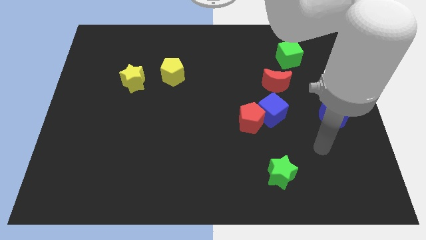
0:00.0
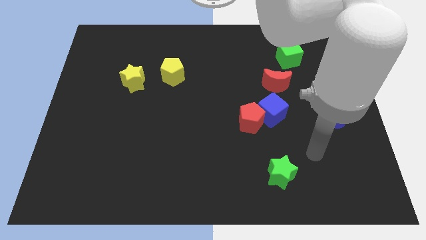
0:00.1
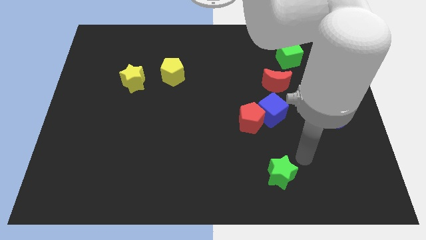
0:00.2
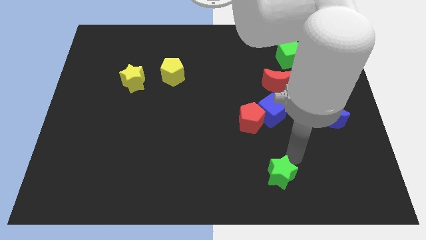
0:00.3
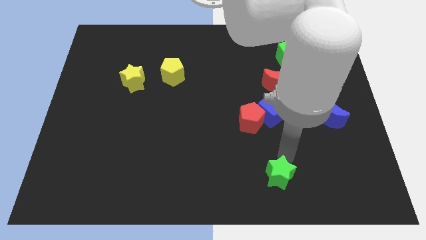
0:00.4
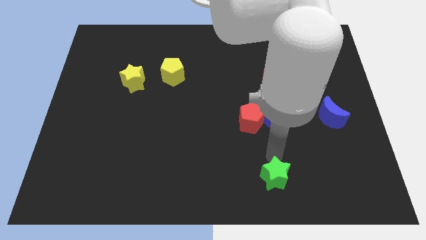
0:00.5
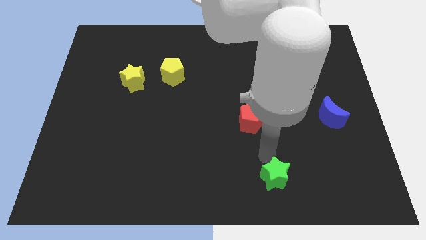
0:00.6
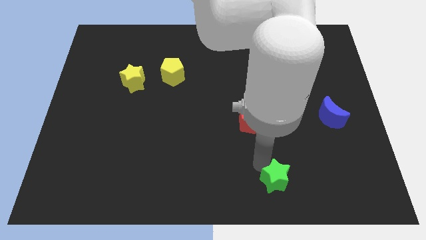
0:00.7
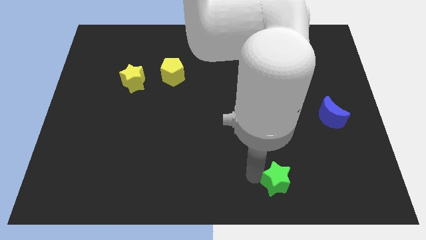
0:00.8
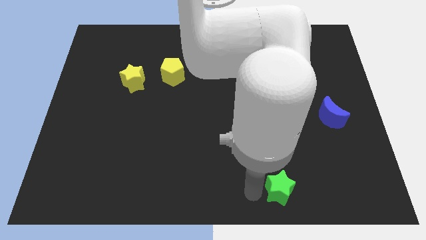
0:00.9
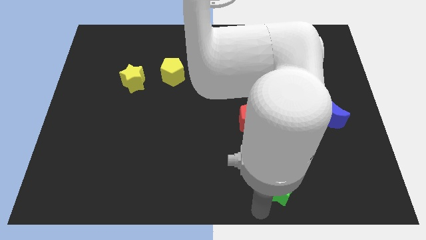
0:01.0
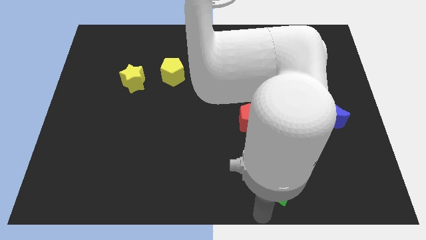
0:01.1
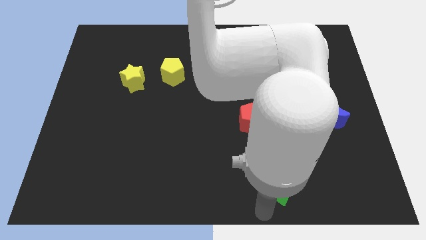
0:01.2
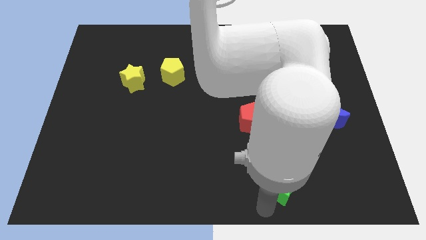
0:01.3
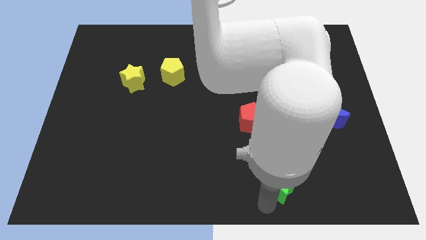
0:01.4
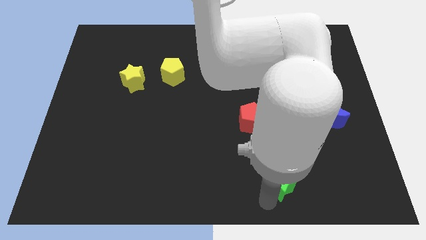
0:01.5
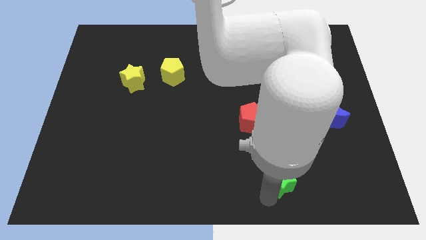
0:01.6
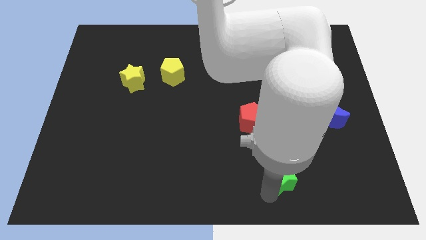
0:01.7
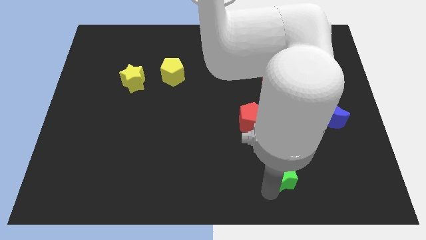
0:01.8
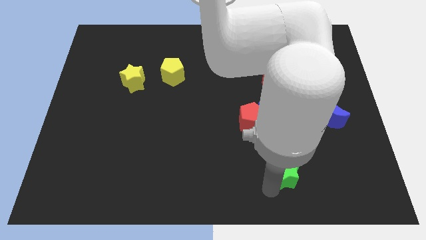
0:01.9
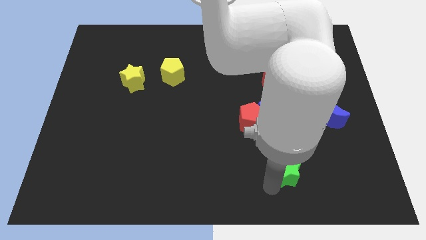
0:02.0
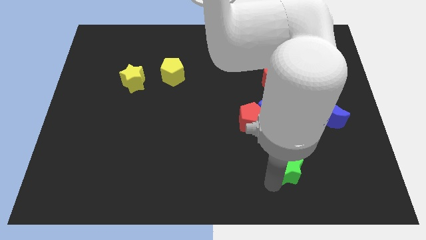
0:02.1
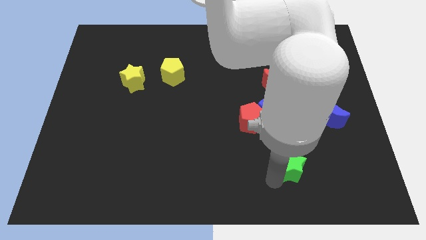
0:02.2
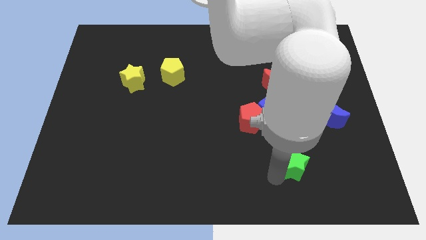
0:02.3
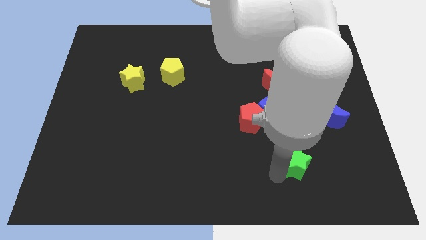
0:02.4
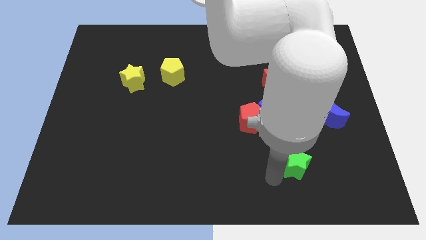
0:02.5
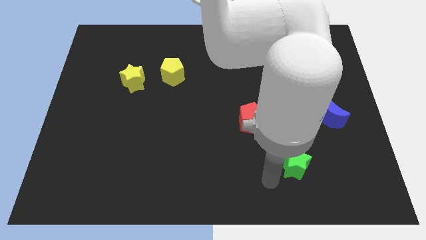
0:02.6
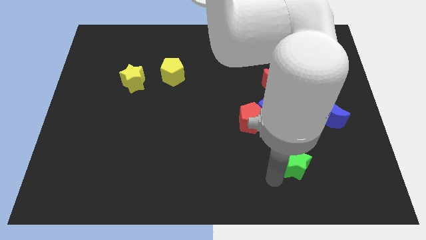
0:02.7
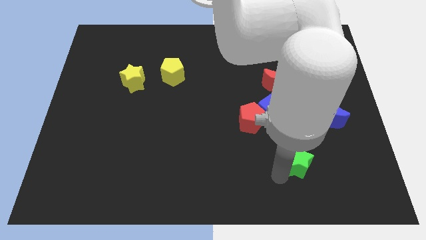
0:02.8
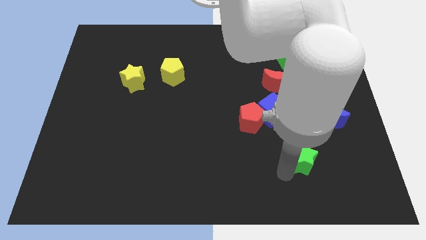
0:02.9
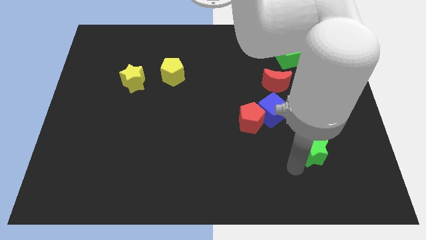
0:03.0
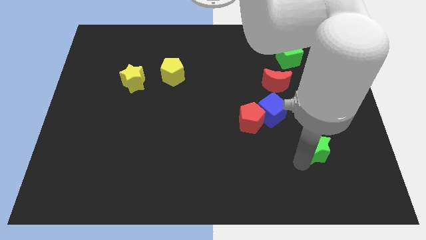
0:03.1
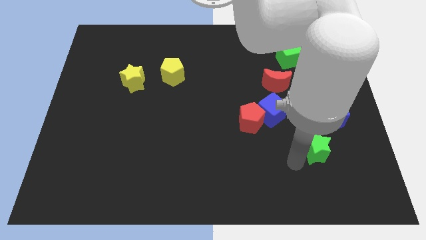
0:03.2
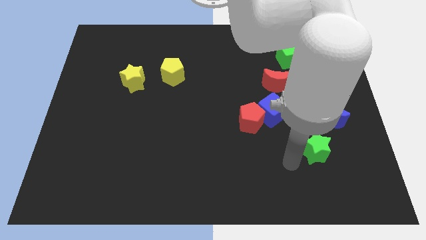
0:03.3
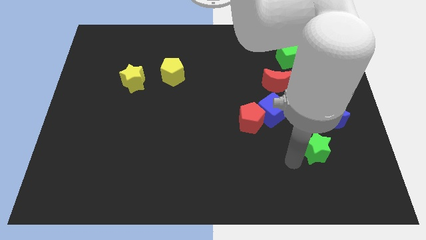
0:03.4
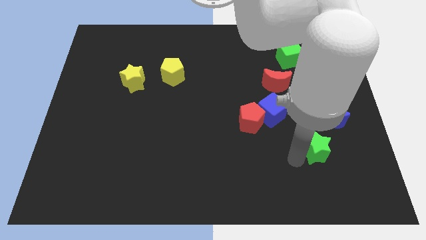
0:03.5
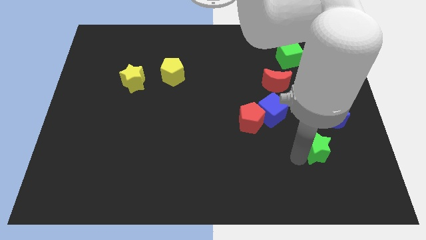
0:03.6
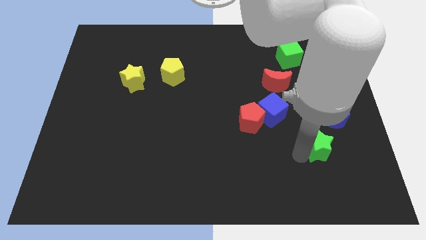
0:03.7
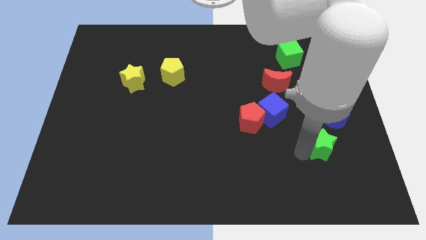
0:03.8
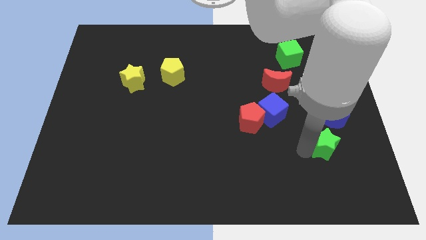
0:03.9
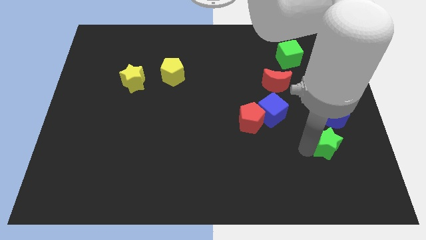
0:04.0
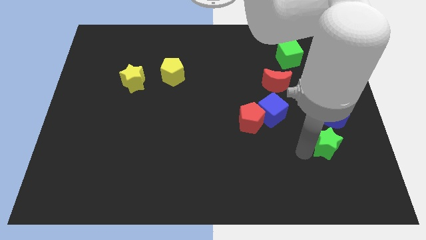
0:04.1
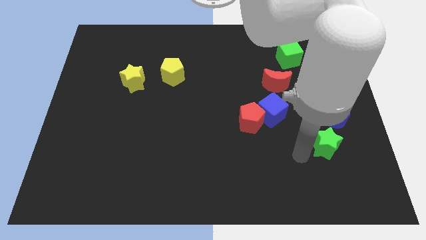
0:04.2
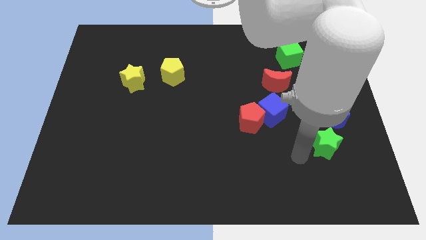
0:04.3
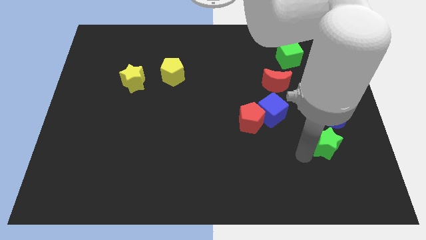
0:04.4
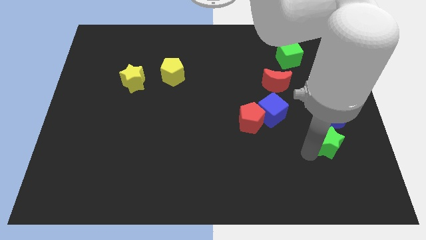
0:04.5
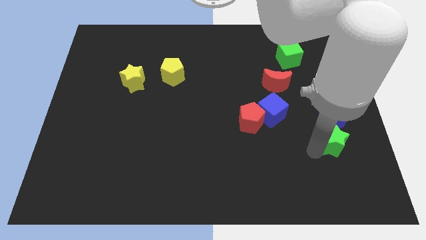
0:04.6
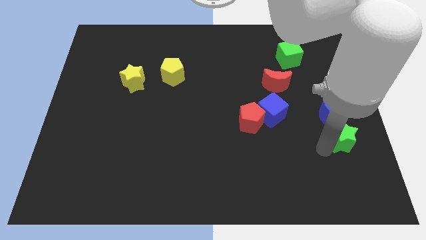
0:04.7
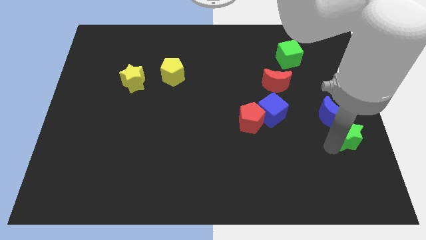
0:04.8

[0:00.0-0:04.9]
move the green star to the right side of the board

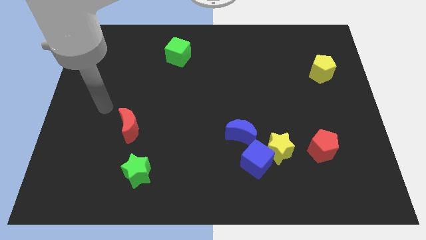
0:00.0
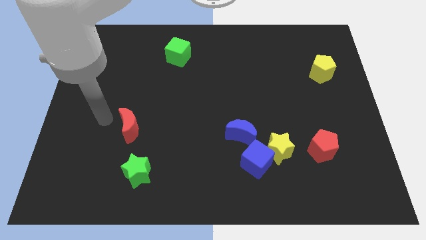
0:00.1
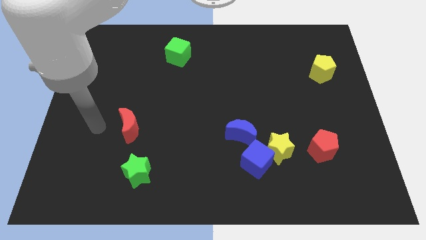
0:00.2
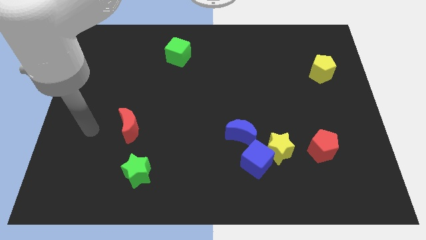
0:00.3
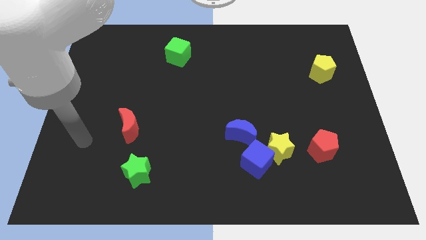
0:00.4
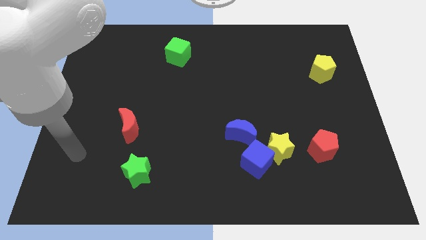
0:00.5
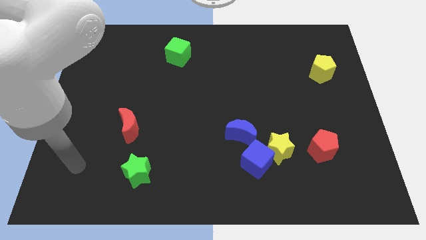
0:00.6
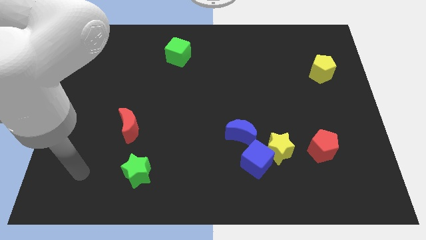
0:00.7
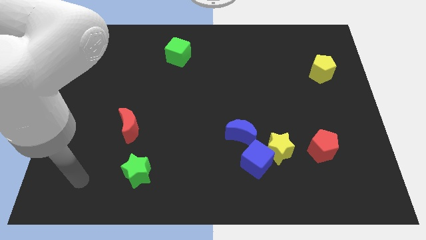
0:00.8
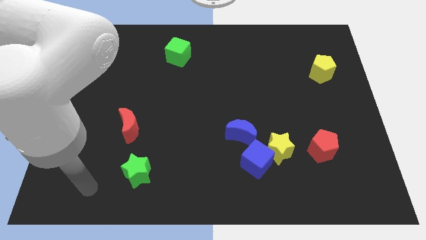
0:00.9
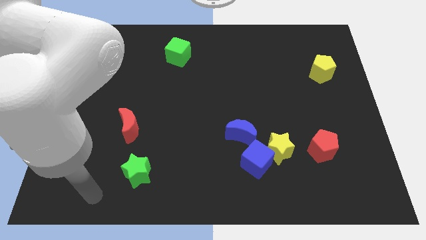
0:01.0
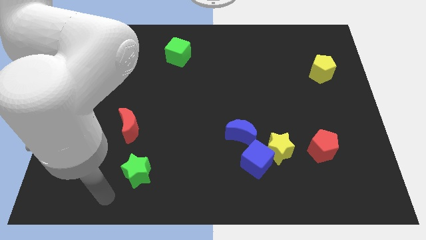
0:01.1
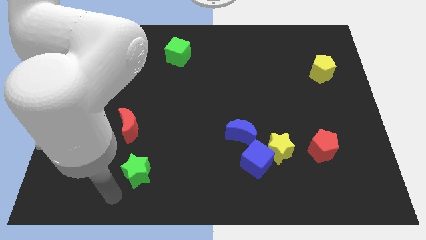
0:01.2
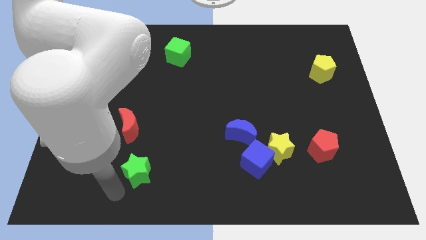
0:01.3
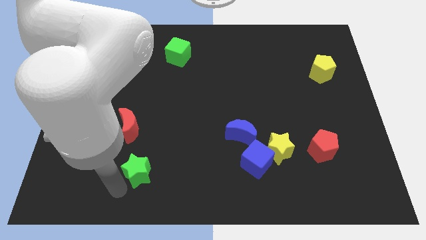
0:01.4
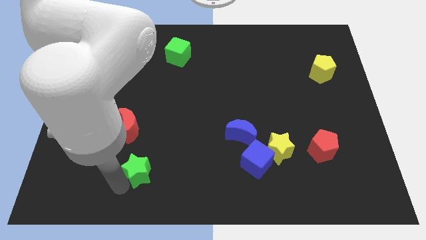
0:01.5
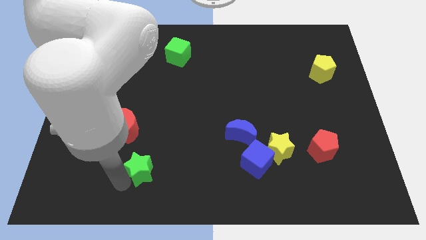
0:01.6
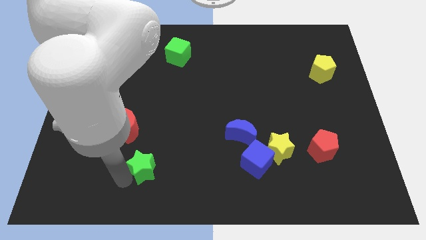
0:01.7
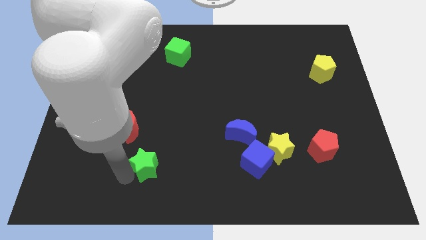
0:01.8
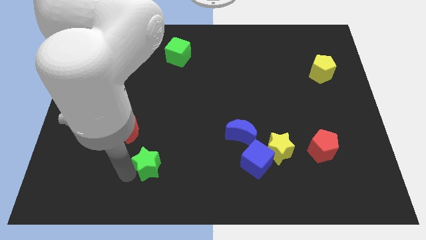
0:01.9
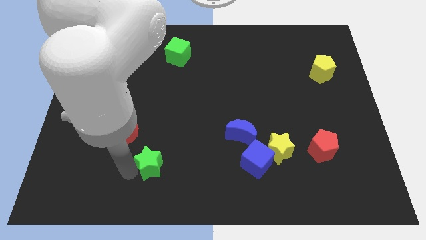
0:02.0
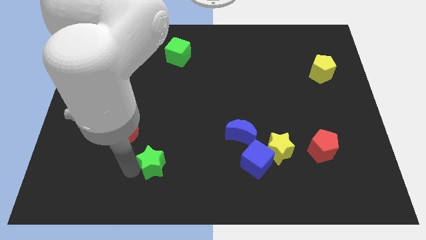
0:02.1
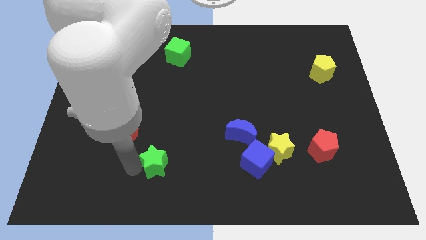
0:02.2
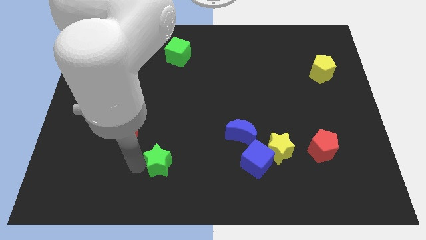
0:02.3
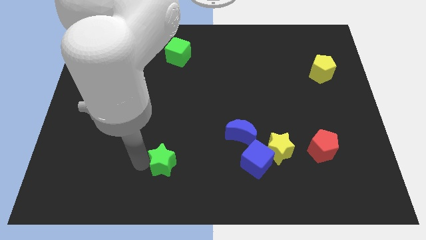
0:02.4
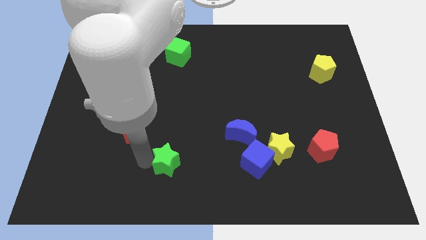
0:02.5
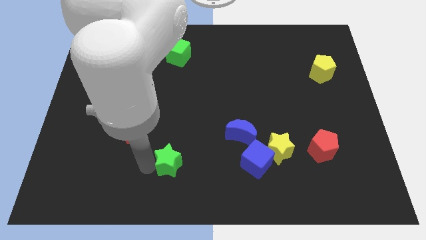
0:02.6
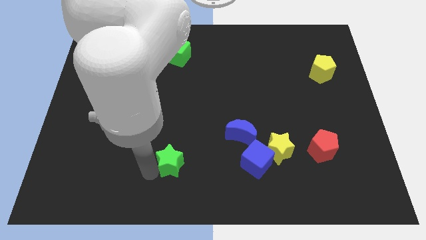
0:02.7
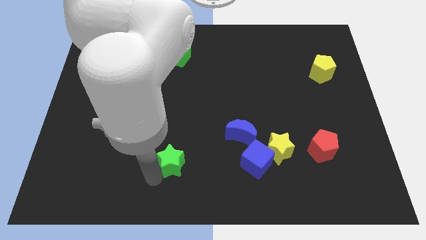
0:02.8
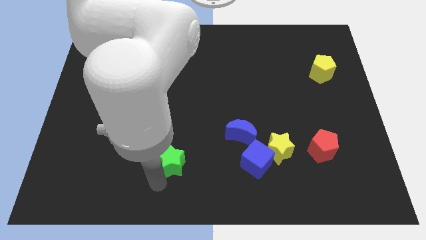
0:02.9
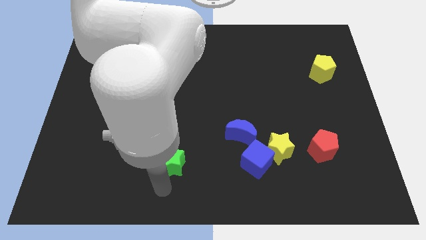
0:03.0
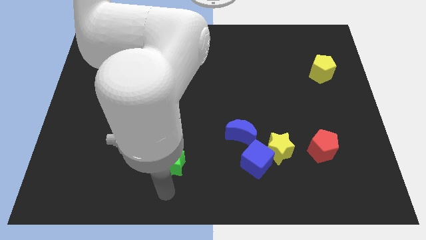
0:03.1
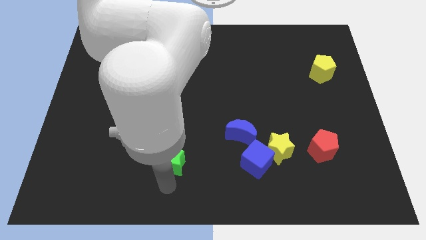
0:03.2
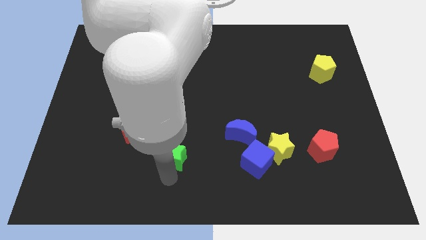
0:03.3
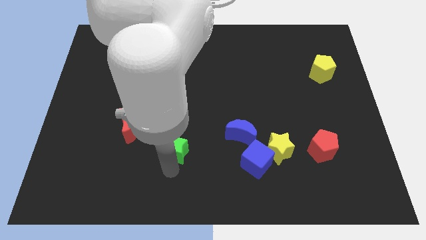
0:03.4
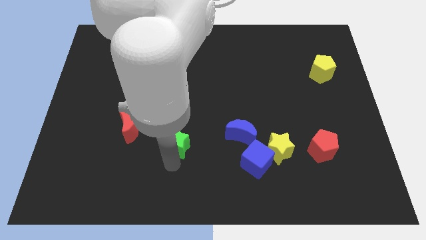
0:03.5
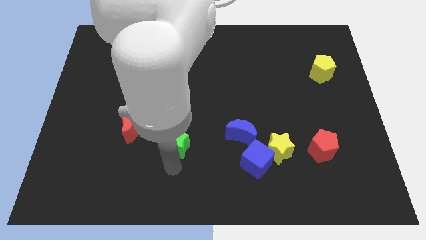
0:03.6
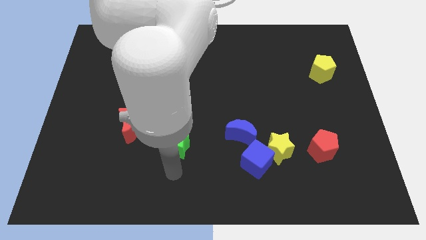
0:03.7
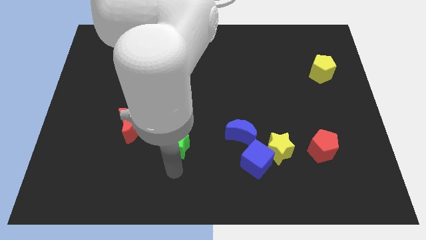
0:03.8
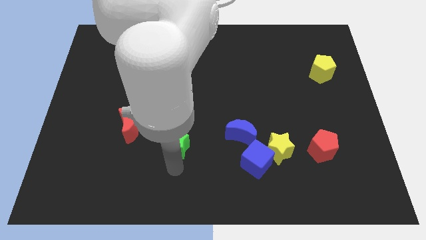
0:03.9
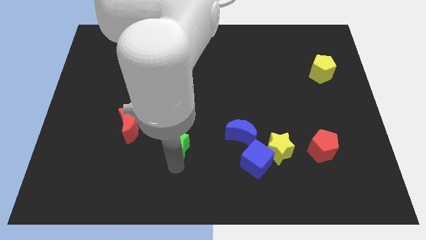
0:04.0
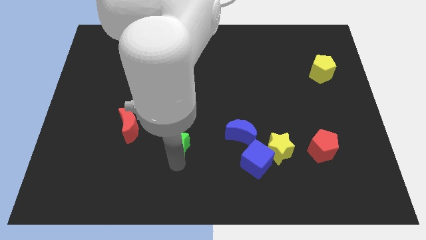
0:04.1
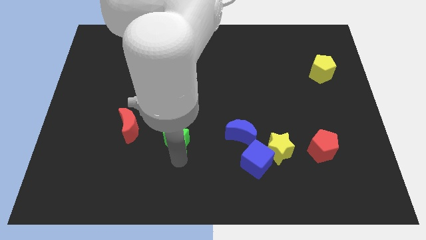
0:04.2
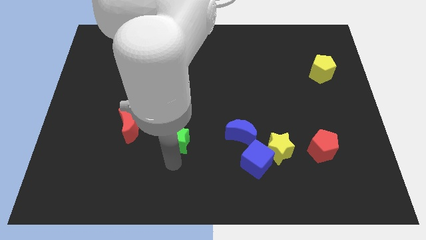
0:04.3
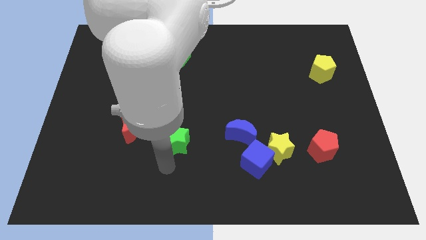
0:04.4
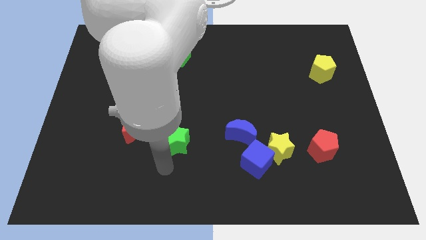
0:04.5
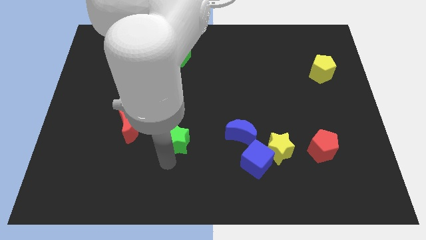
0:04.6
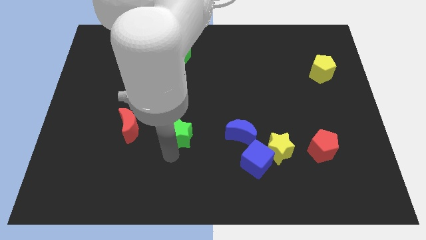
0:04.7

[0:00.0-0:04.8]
move the green star to the middle of the board
